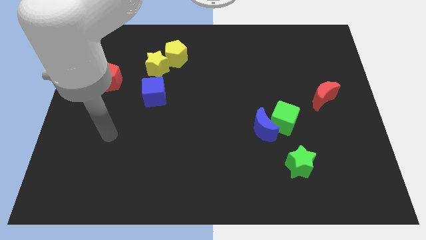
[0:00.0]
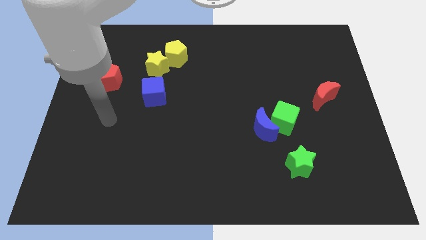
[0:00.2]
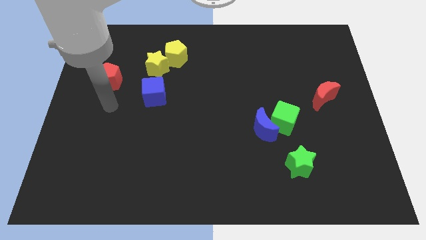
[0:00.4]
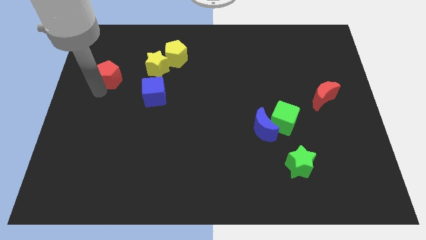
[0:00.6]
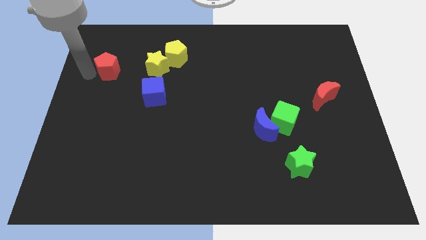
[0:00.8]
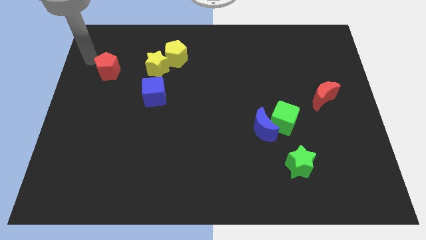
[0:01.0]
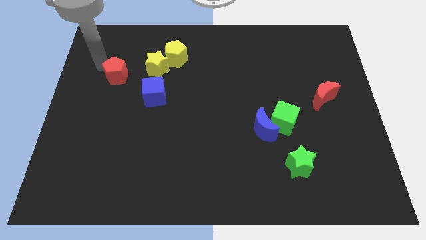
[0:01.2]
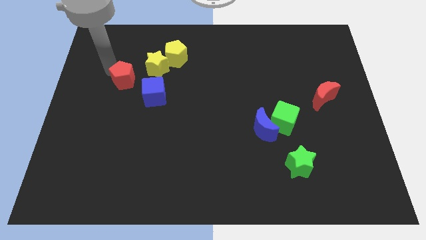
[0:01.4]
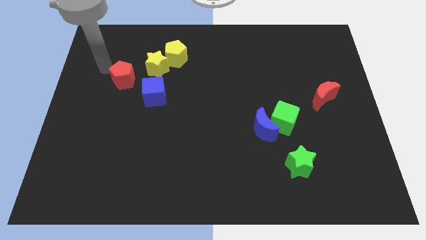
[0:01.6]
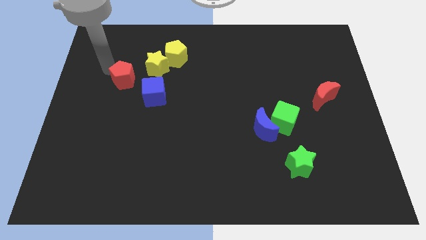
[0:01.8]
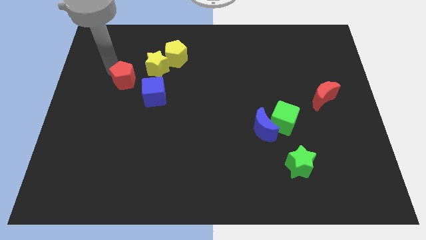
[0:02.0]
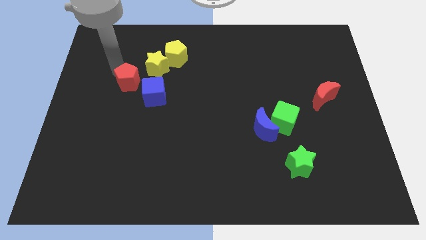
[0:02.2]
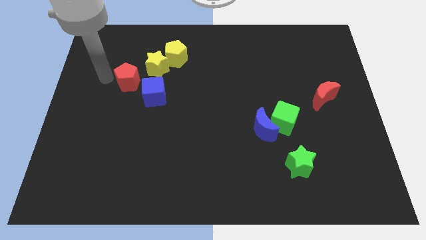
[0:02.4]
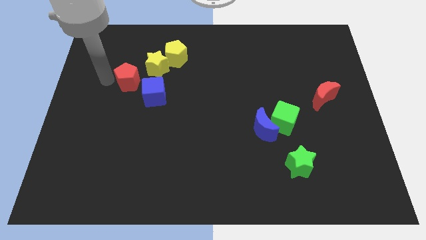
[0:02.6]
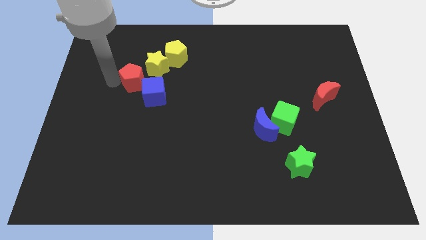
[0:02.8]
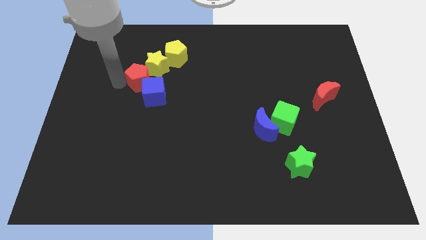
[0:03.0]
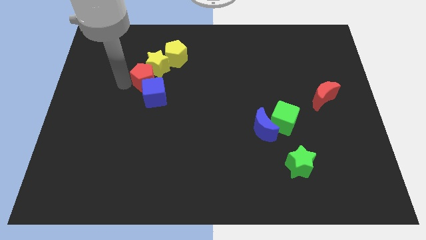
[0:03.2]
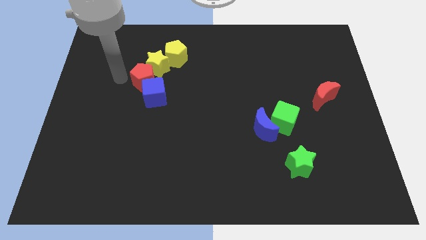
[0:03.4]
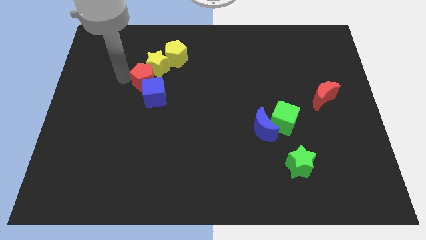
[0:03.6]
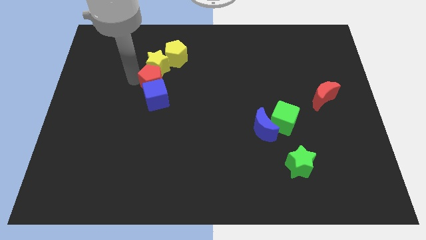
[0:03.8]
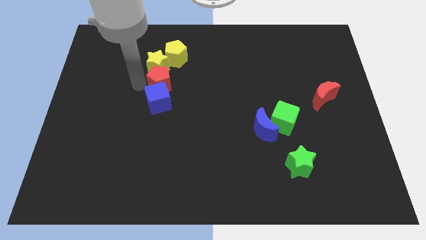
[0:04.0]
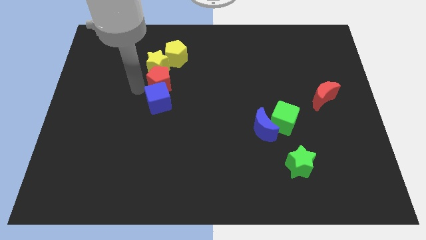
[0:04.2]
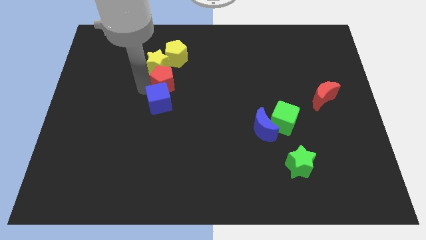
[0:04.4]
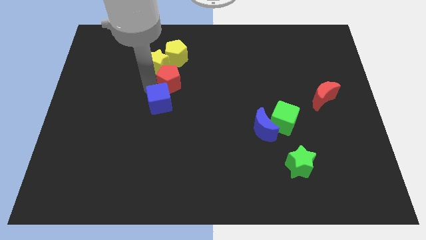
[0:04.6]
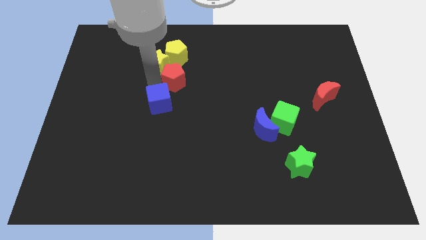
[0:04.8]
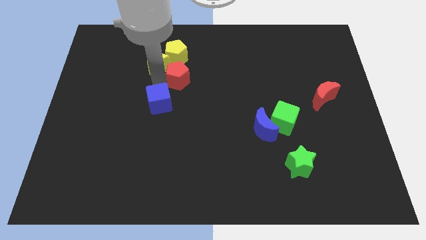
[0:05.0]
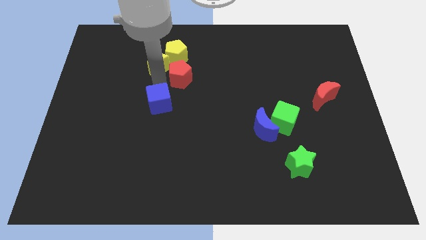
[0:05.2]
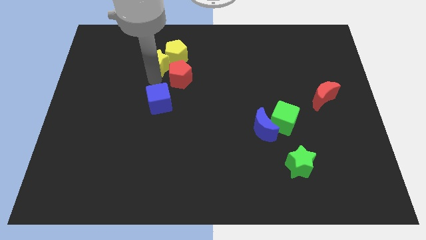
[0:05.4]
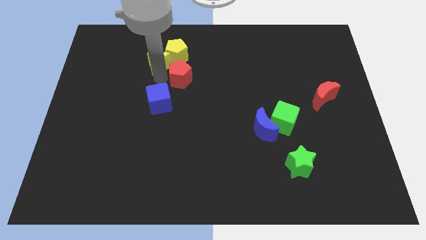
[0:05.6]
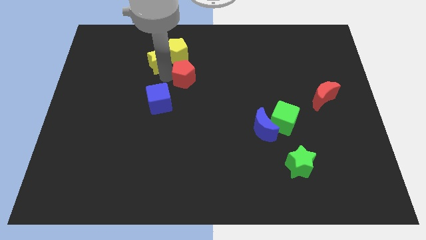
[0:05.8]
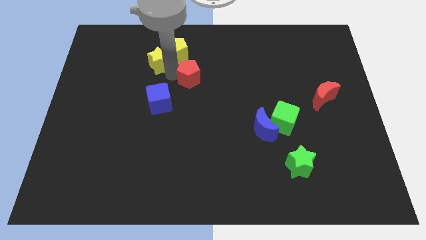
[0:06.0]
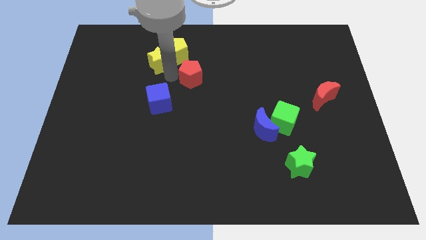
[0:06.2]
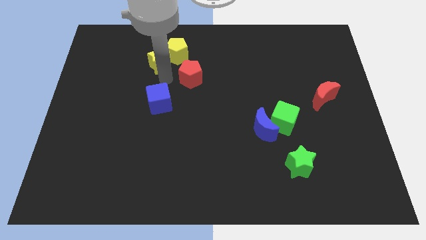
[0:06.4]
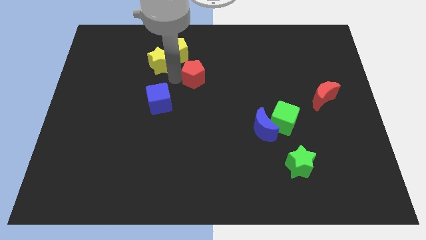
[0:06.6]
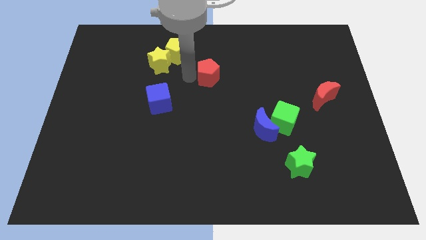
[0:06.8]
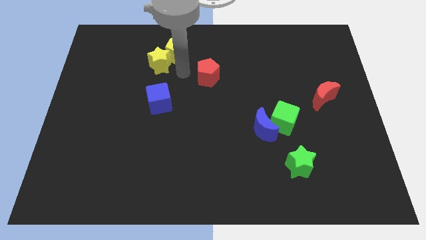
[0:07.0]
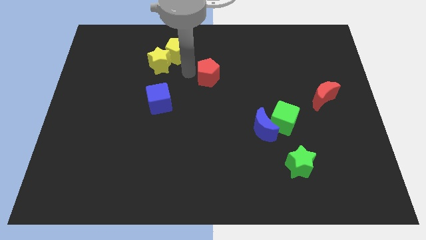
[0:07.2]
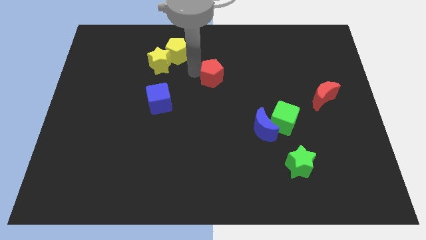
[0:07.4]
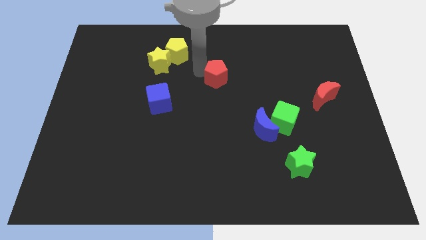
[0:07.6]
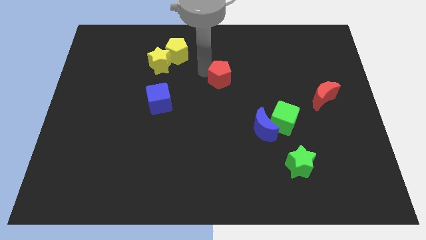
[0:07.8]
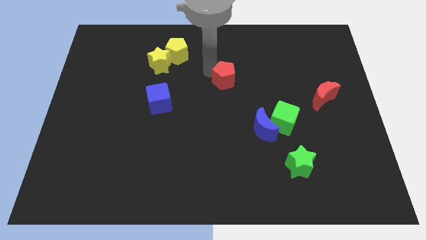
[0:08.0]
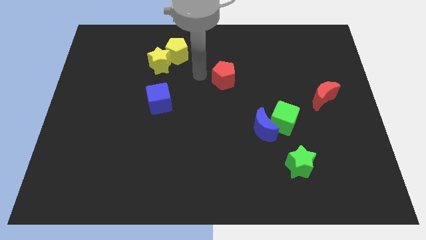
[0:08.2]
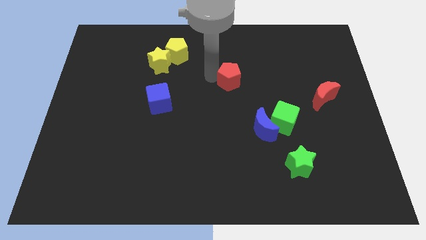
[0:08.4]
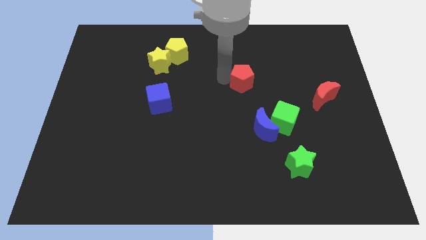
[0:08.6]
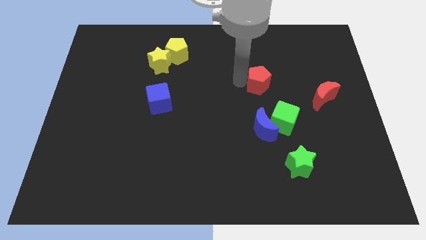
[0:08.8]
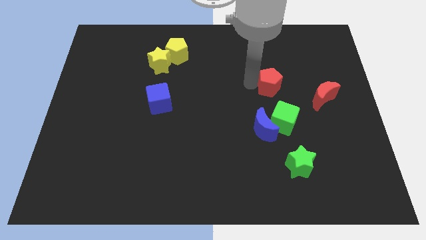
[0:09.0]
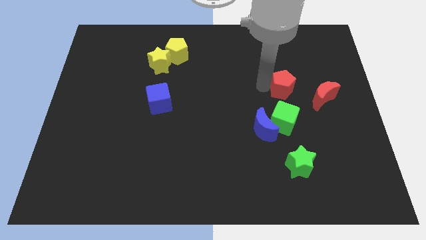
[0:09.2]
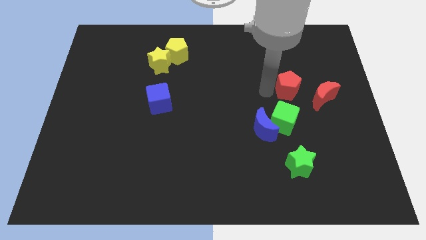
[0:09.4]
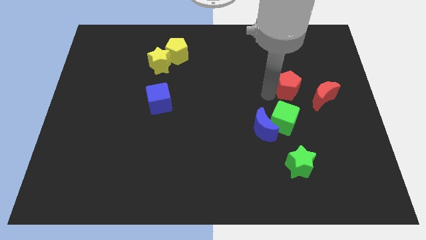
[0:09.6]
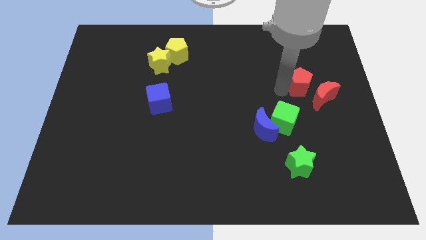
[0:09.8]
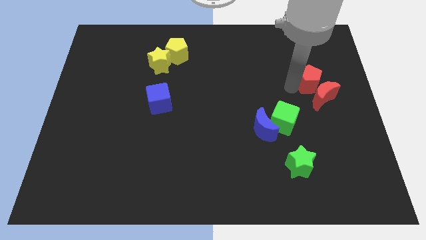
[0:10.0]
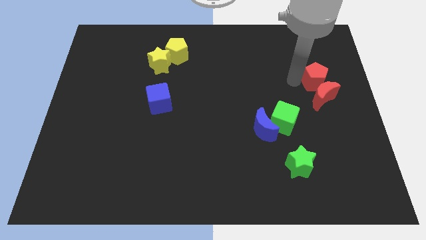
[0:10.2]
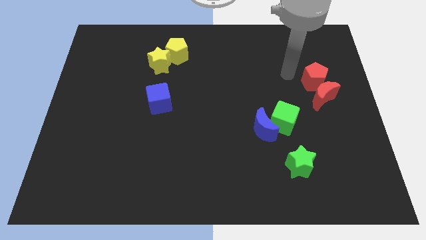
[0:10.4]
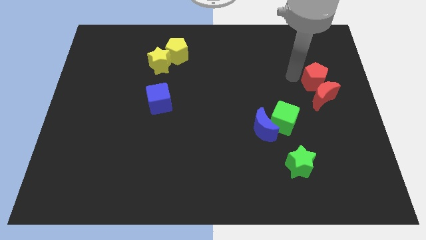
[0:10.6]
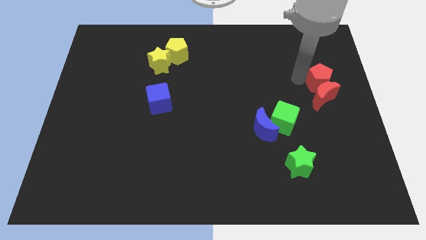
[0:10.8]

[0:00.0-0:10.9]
move the red pentagon to the right side

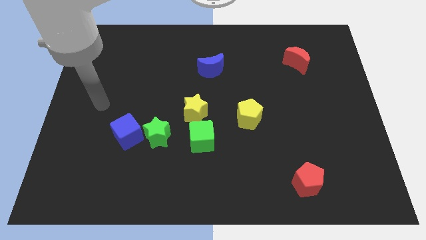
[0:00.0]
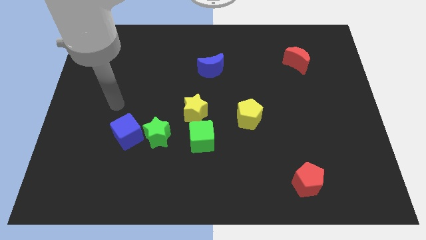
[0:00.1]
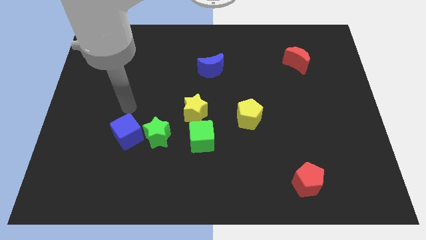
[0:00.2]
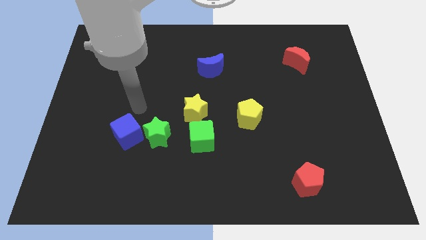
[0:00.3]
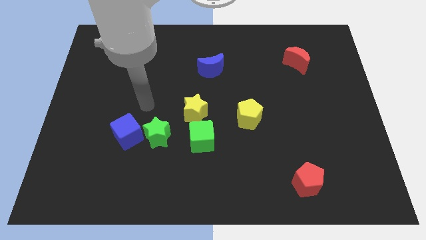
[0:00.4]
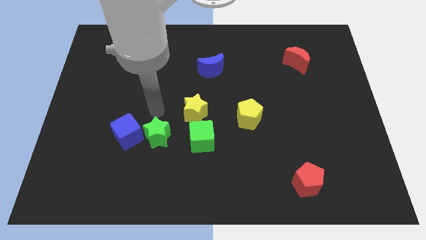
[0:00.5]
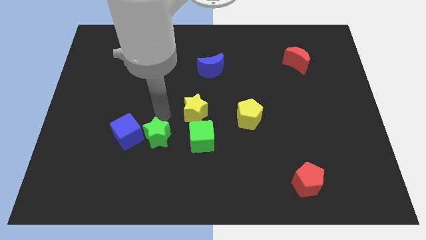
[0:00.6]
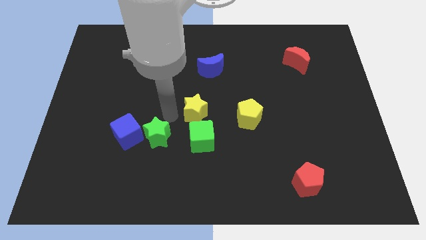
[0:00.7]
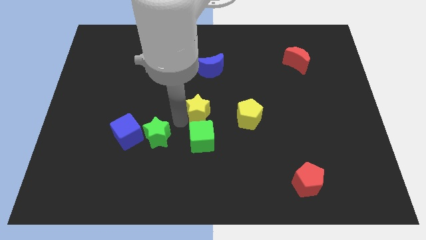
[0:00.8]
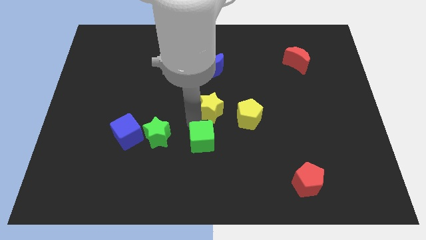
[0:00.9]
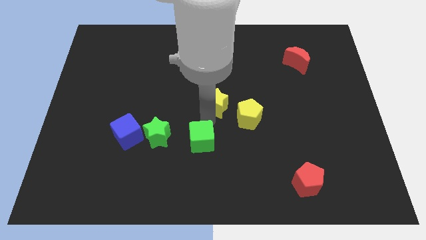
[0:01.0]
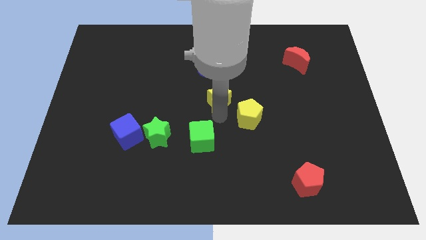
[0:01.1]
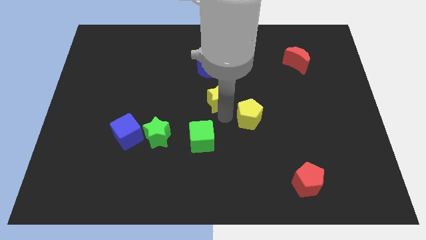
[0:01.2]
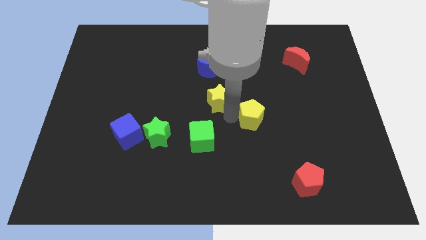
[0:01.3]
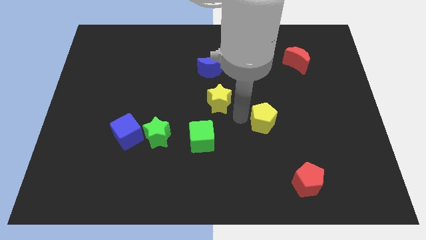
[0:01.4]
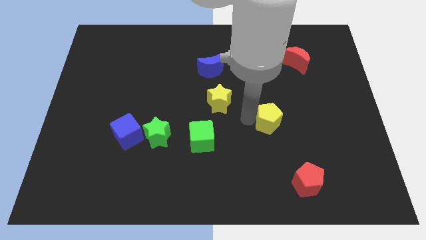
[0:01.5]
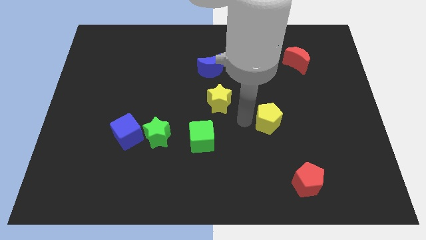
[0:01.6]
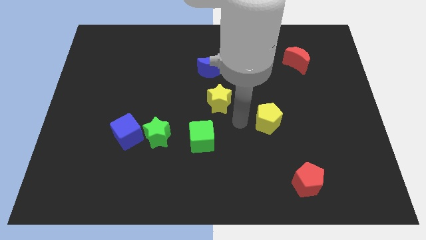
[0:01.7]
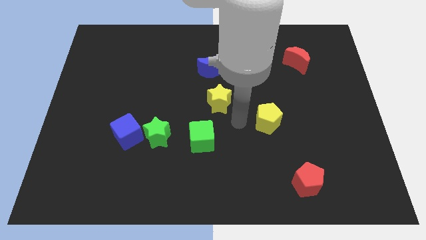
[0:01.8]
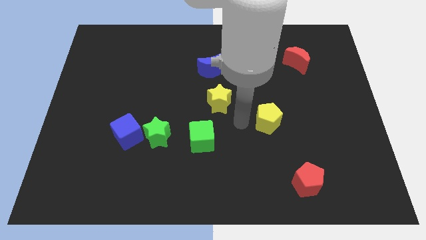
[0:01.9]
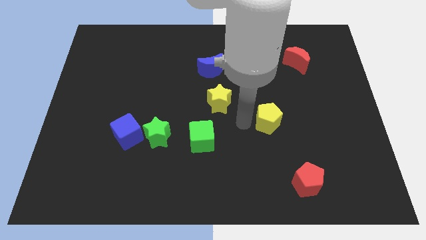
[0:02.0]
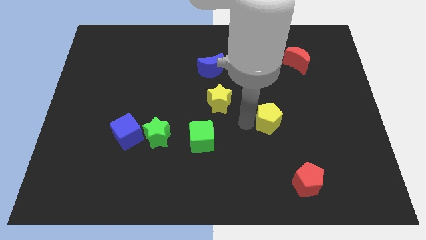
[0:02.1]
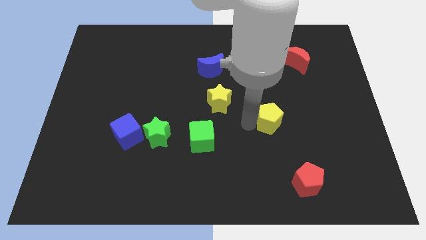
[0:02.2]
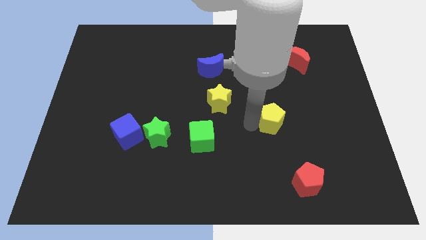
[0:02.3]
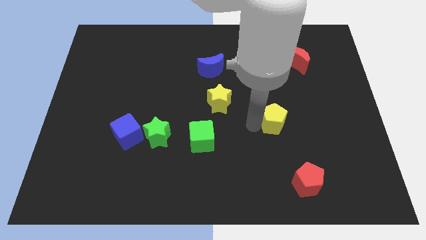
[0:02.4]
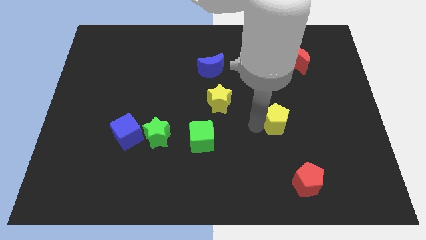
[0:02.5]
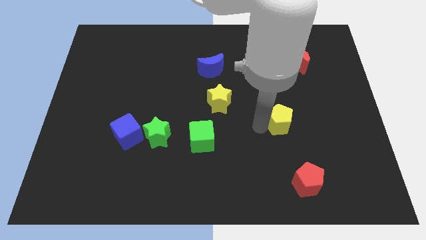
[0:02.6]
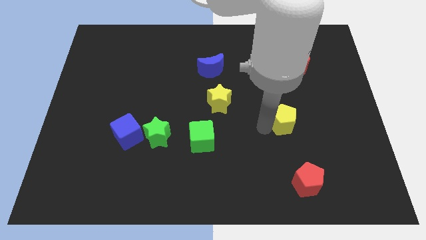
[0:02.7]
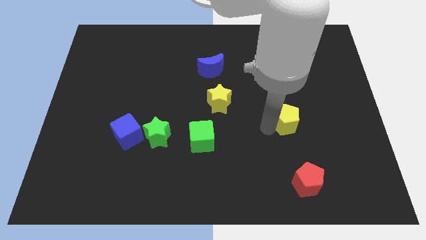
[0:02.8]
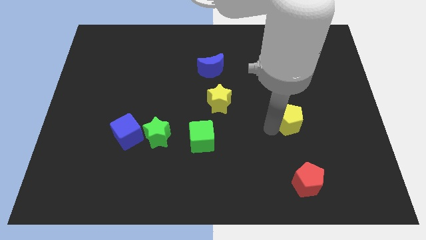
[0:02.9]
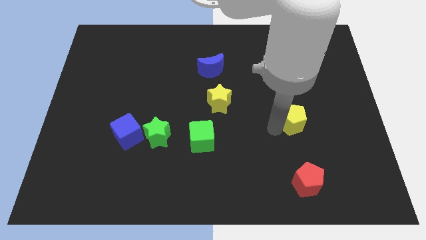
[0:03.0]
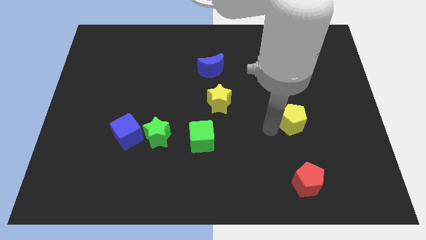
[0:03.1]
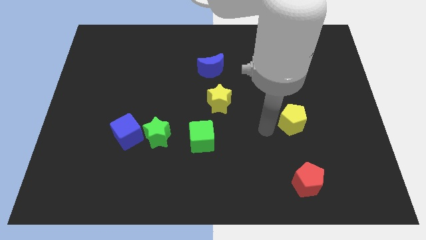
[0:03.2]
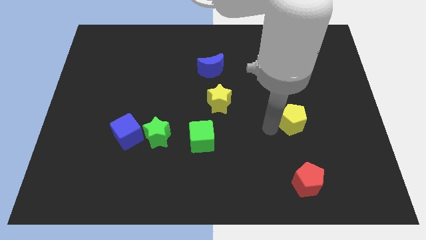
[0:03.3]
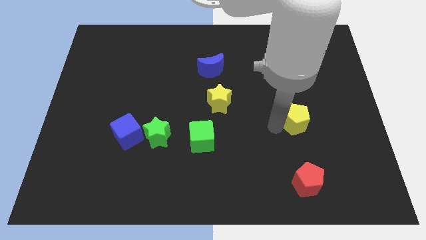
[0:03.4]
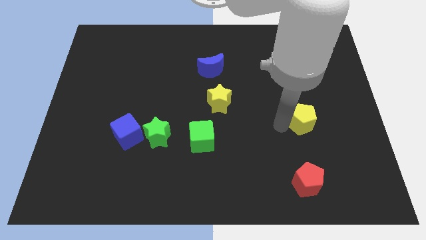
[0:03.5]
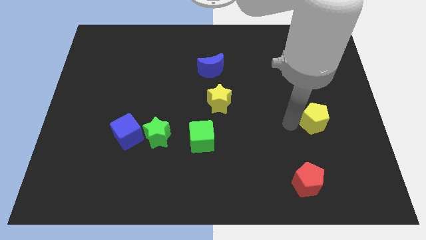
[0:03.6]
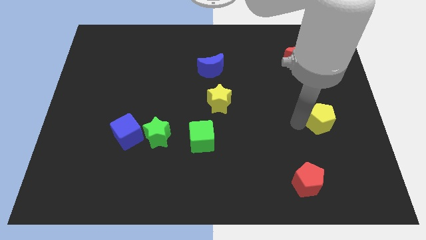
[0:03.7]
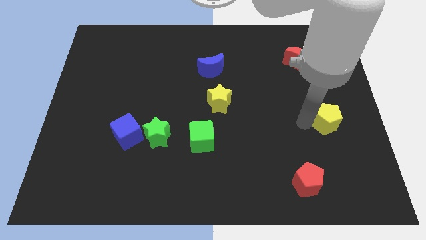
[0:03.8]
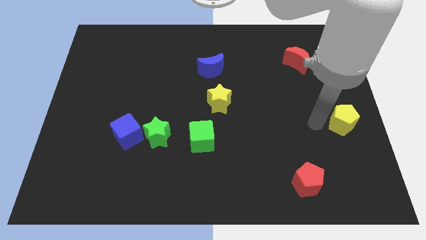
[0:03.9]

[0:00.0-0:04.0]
slide the yellow pentagon to the center right
